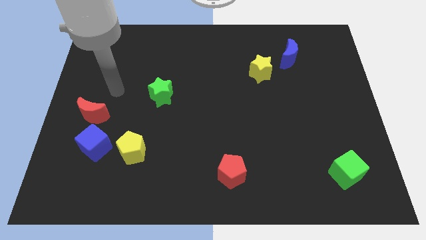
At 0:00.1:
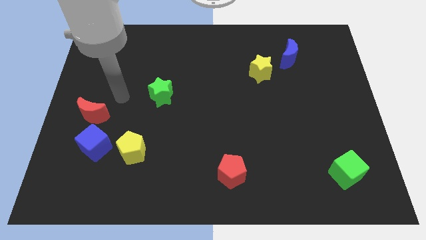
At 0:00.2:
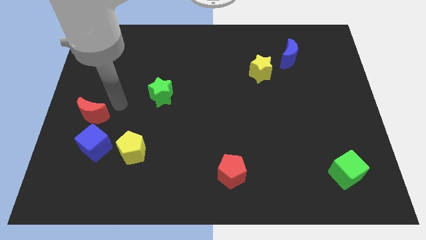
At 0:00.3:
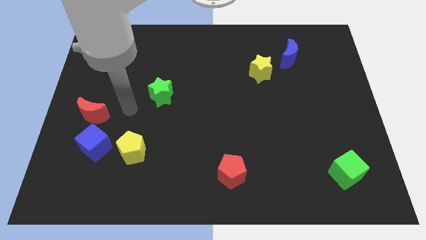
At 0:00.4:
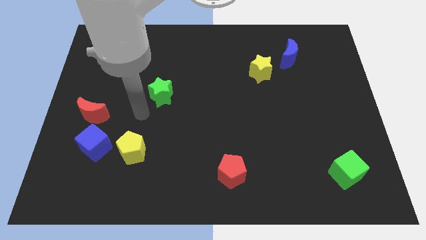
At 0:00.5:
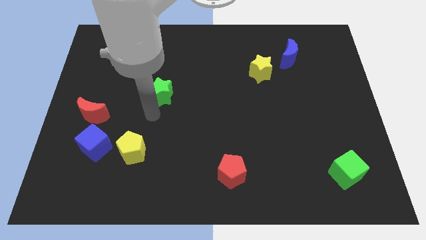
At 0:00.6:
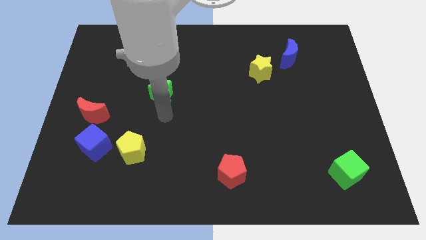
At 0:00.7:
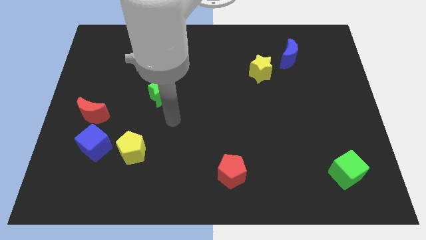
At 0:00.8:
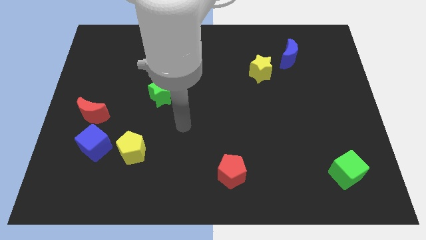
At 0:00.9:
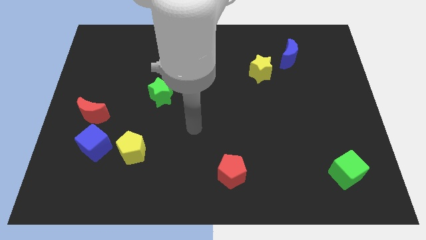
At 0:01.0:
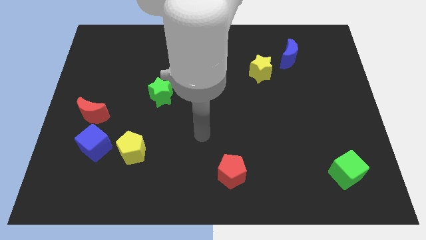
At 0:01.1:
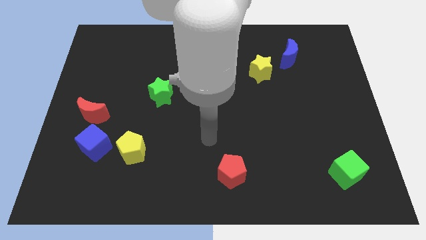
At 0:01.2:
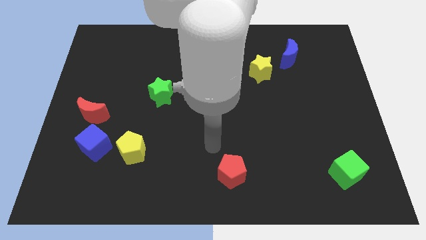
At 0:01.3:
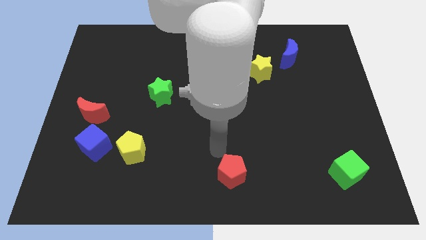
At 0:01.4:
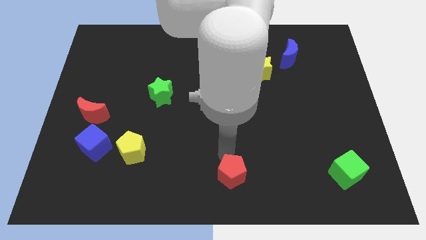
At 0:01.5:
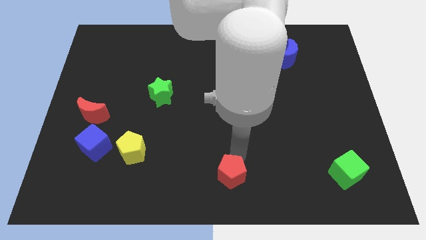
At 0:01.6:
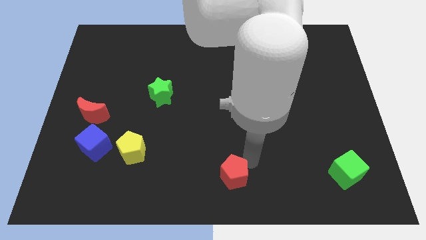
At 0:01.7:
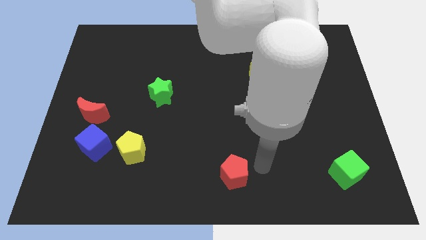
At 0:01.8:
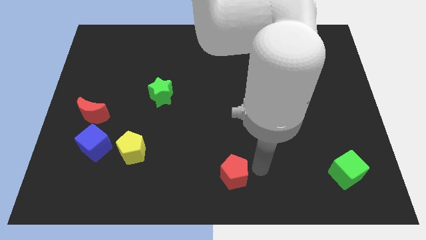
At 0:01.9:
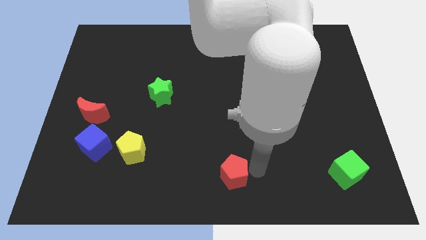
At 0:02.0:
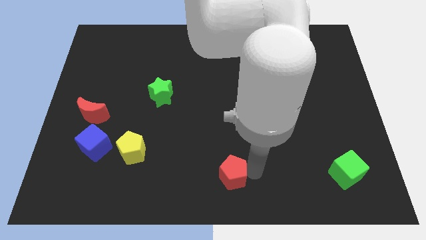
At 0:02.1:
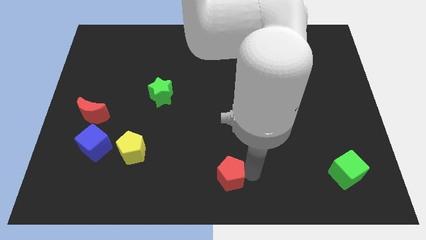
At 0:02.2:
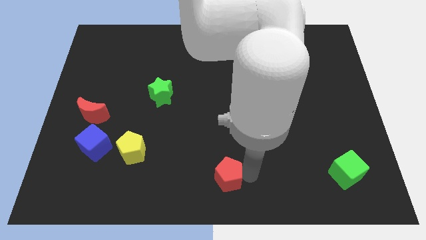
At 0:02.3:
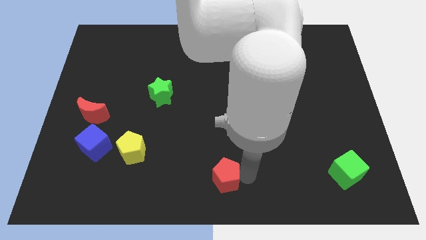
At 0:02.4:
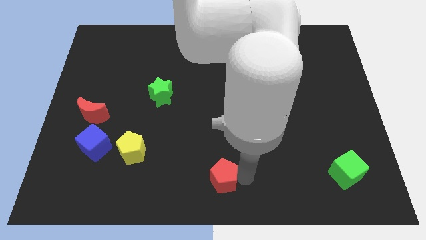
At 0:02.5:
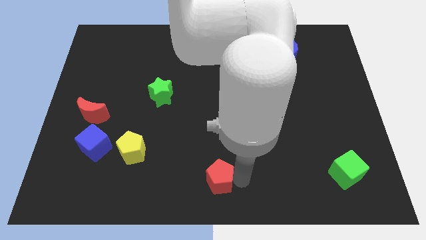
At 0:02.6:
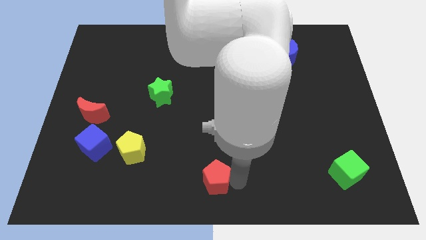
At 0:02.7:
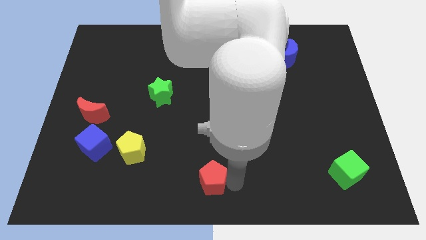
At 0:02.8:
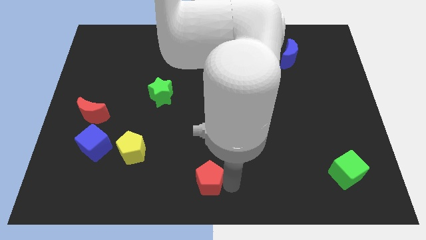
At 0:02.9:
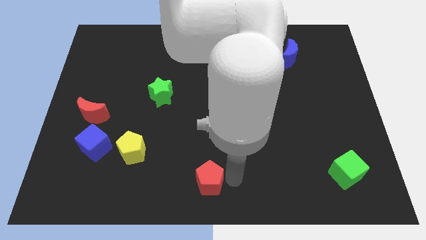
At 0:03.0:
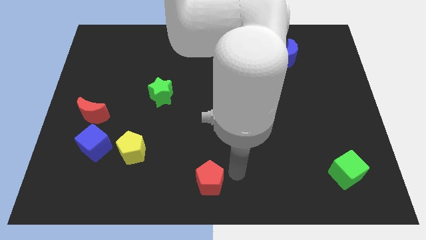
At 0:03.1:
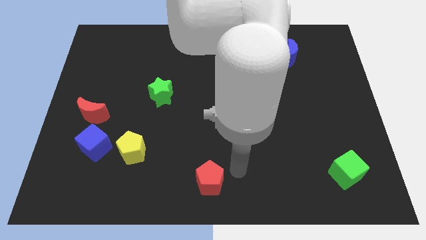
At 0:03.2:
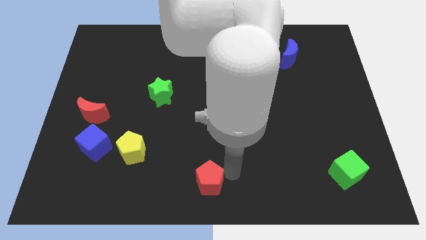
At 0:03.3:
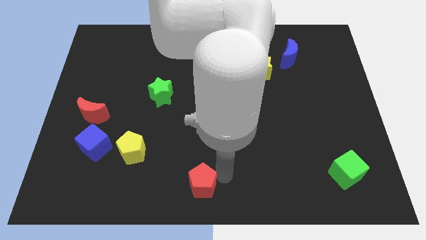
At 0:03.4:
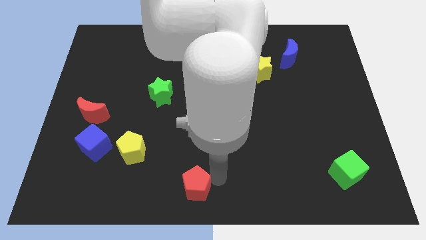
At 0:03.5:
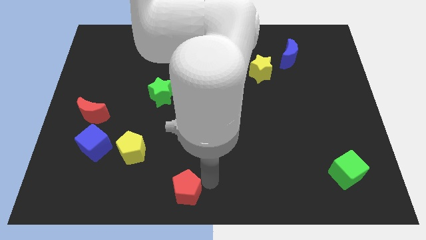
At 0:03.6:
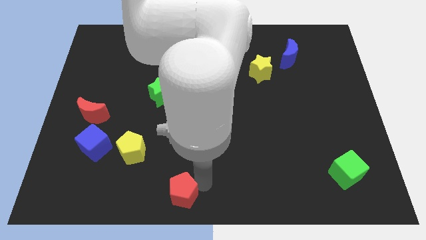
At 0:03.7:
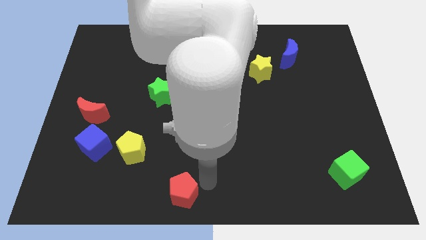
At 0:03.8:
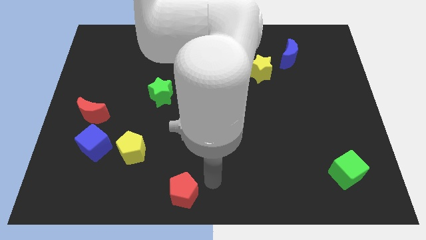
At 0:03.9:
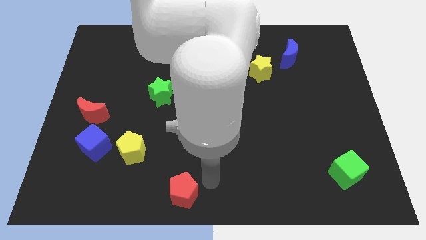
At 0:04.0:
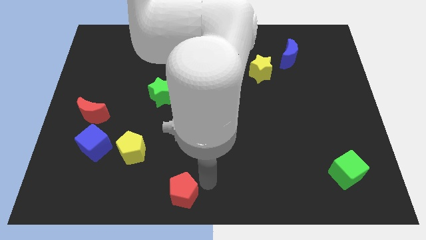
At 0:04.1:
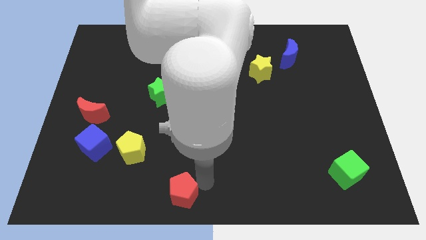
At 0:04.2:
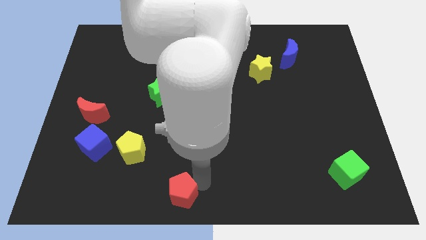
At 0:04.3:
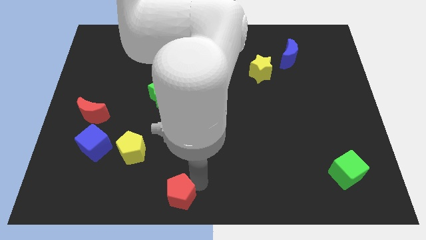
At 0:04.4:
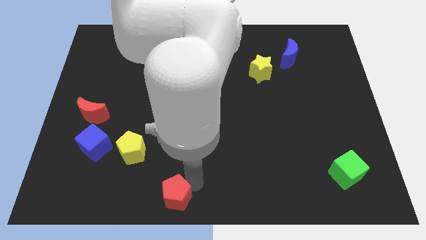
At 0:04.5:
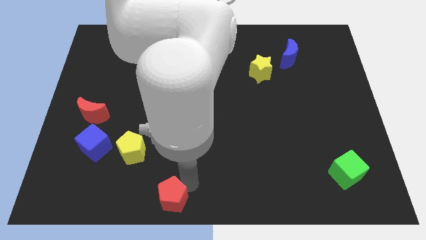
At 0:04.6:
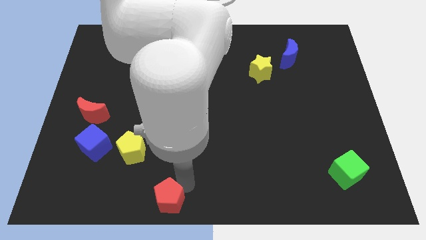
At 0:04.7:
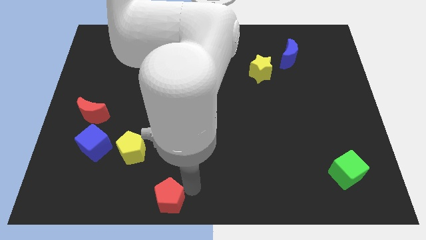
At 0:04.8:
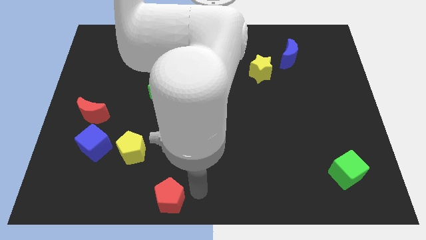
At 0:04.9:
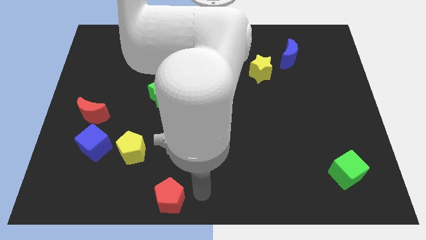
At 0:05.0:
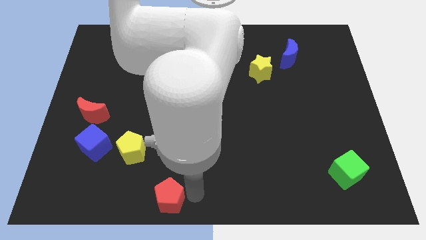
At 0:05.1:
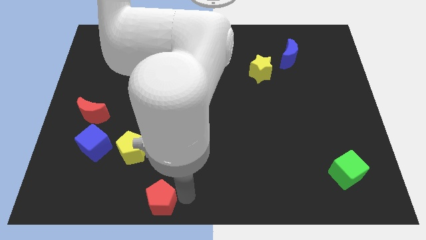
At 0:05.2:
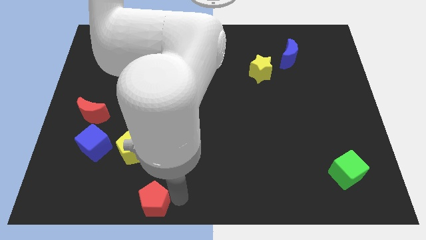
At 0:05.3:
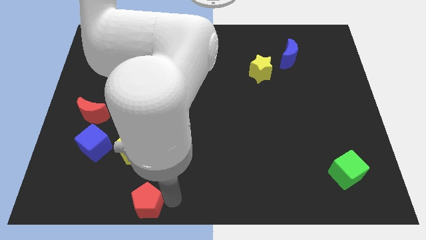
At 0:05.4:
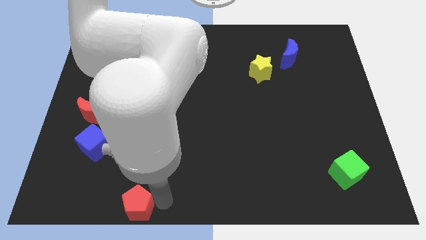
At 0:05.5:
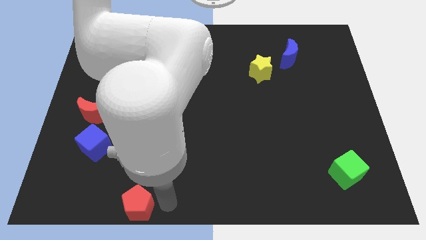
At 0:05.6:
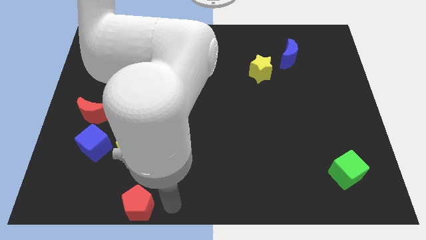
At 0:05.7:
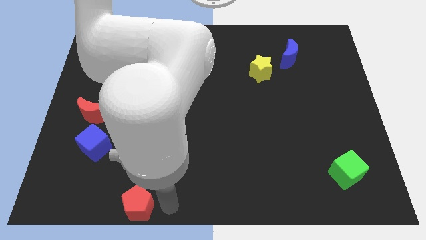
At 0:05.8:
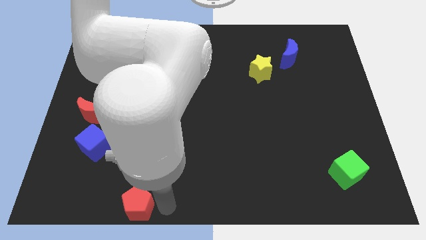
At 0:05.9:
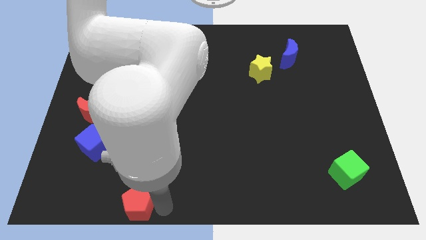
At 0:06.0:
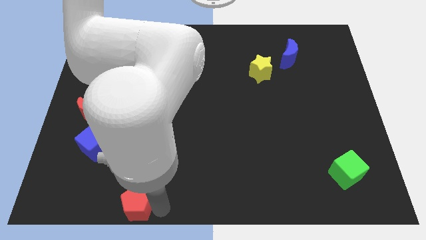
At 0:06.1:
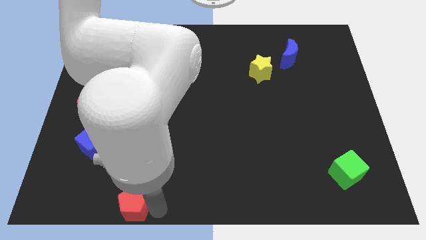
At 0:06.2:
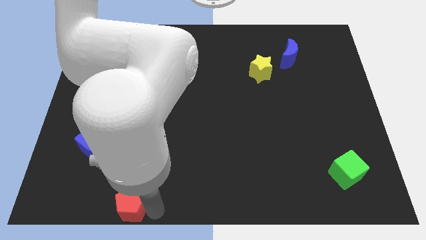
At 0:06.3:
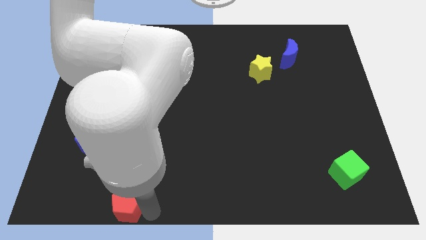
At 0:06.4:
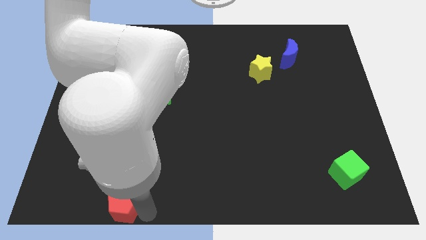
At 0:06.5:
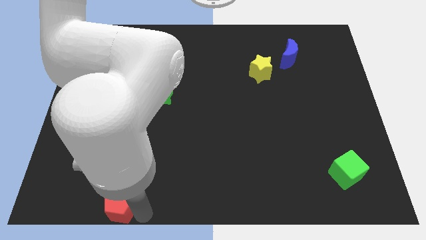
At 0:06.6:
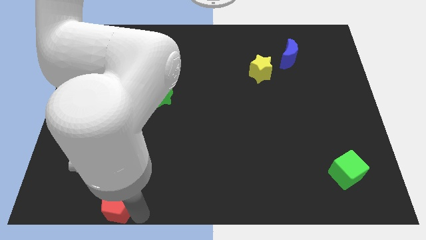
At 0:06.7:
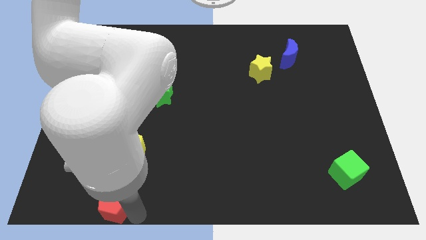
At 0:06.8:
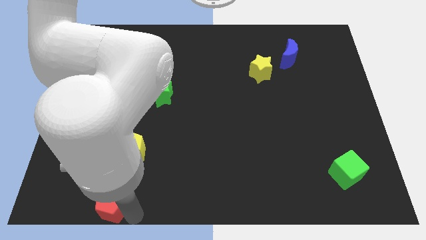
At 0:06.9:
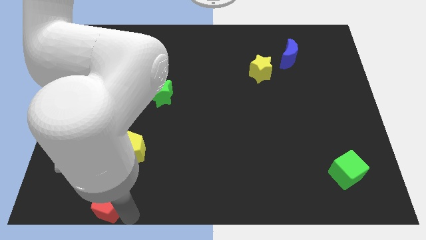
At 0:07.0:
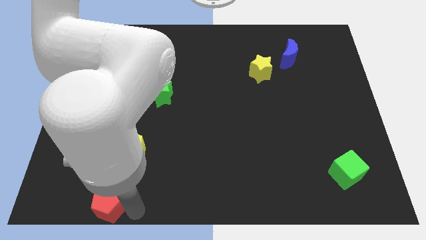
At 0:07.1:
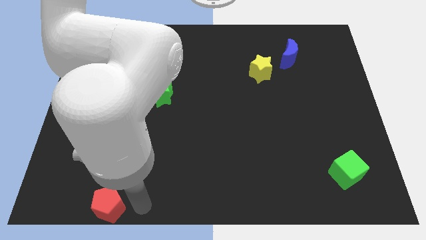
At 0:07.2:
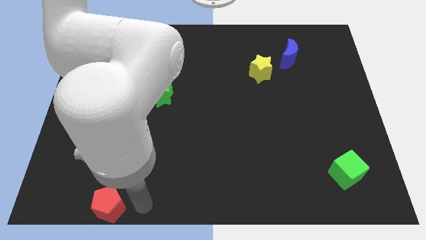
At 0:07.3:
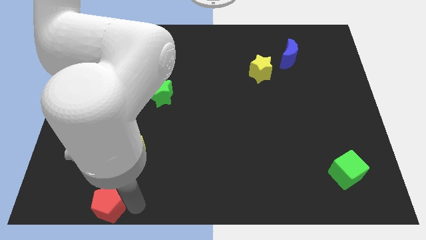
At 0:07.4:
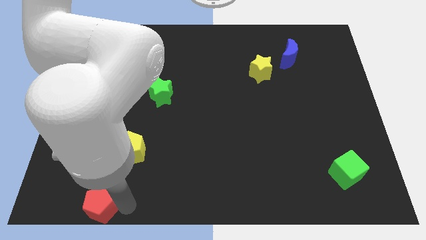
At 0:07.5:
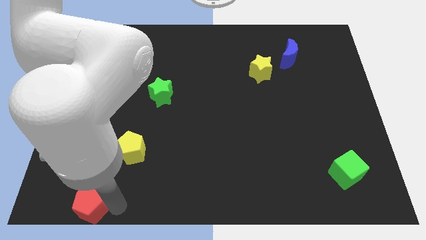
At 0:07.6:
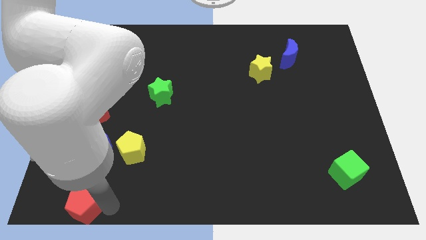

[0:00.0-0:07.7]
slide the red pentagon to the bottom left of the board
